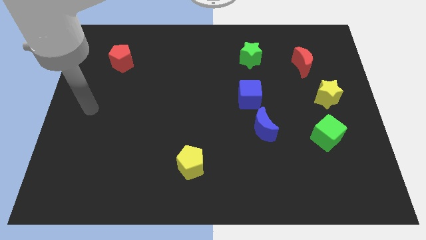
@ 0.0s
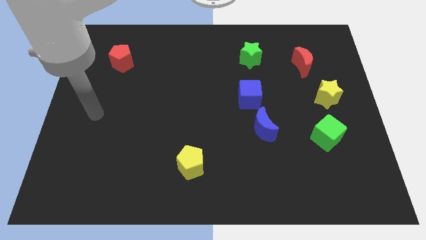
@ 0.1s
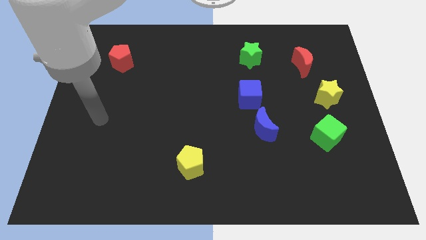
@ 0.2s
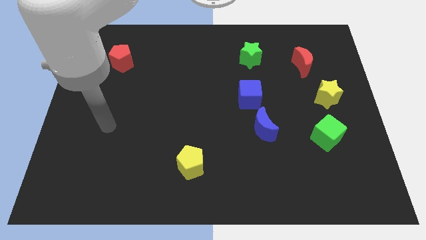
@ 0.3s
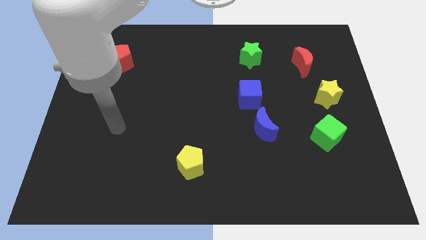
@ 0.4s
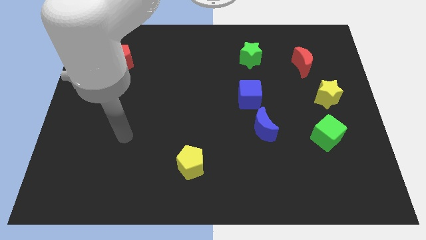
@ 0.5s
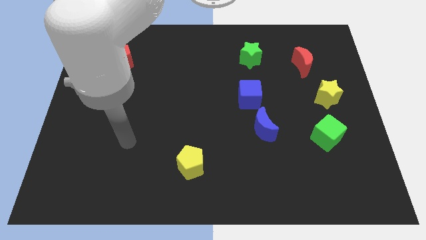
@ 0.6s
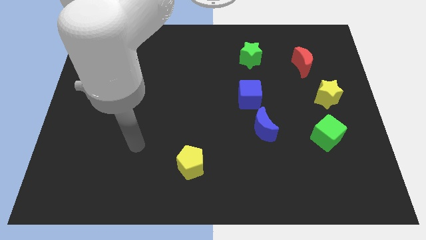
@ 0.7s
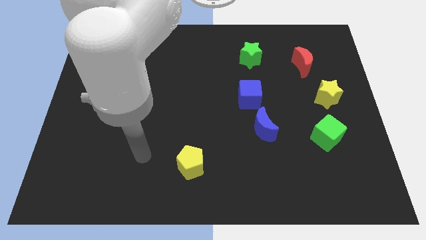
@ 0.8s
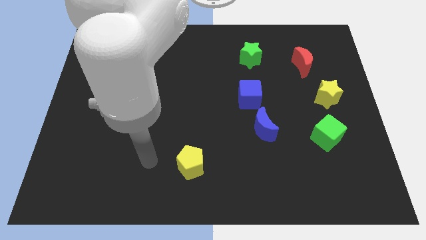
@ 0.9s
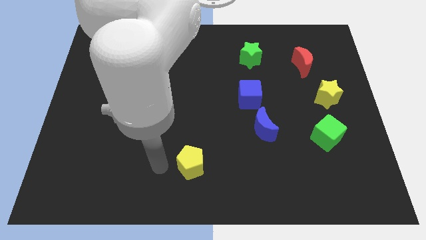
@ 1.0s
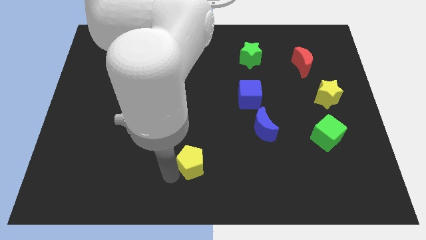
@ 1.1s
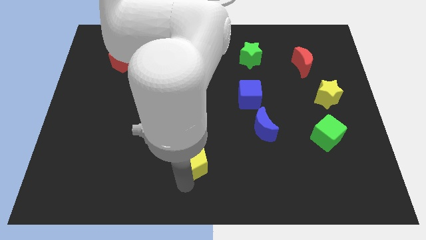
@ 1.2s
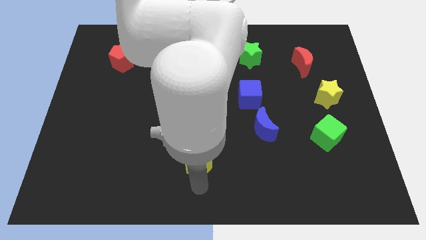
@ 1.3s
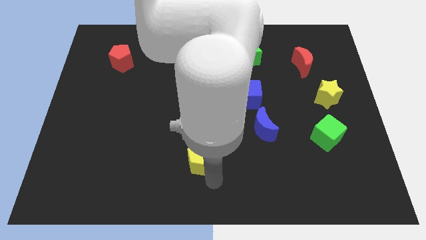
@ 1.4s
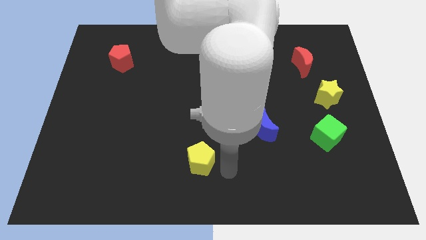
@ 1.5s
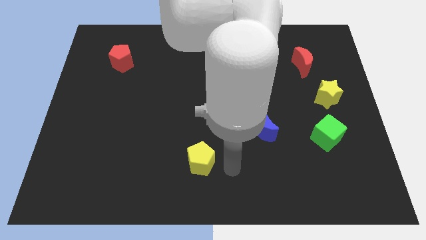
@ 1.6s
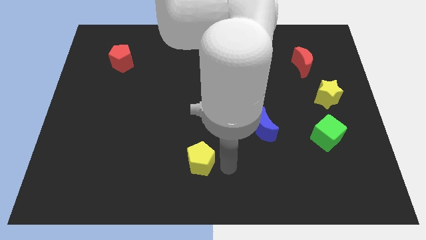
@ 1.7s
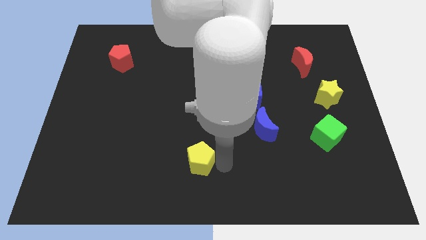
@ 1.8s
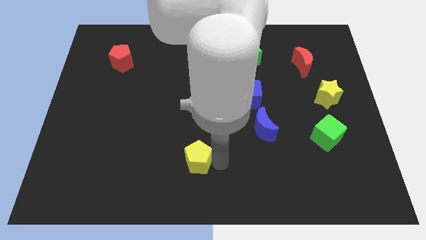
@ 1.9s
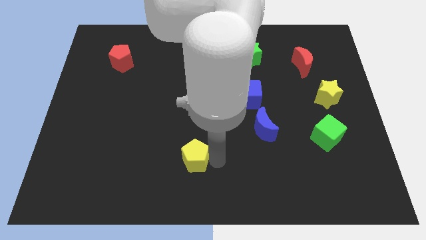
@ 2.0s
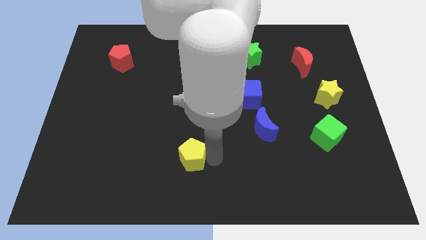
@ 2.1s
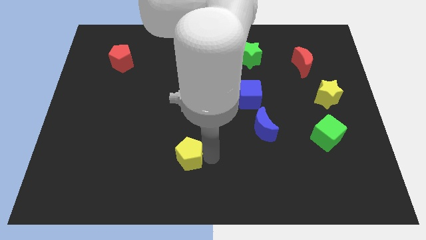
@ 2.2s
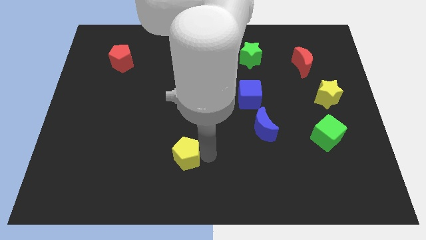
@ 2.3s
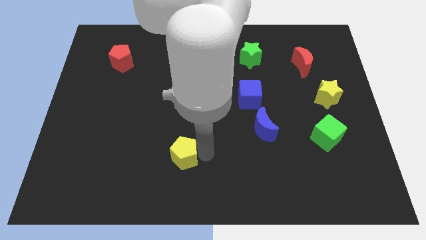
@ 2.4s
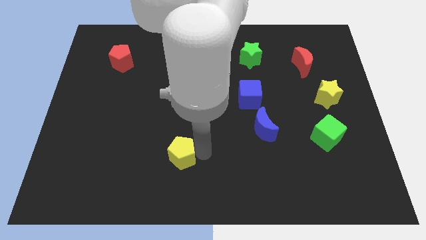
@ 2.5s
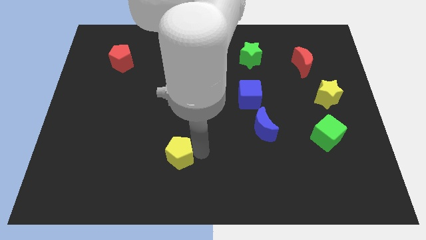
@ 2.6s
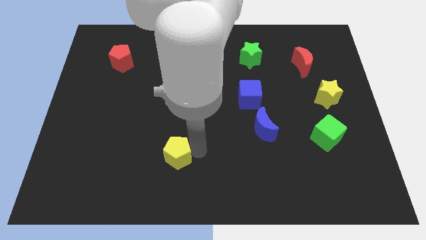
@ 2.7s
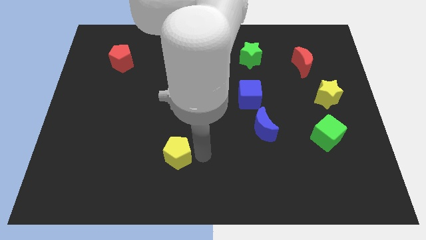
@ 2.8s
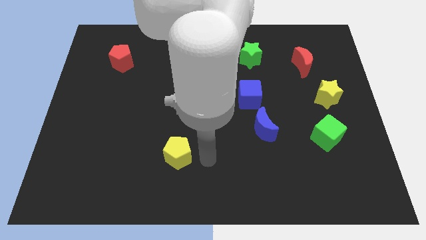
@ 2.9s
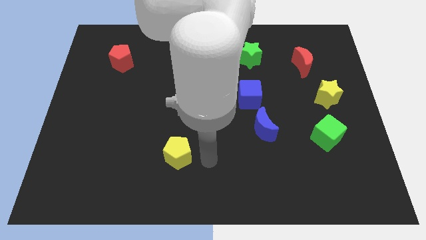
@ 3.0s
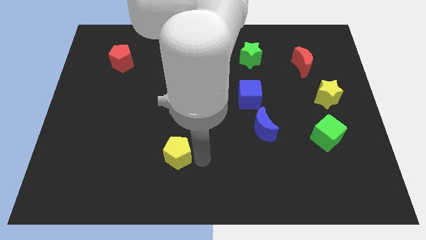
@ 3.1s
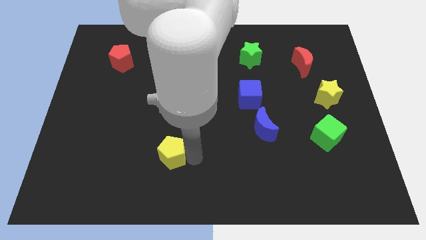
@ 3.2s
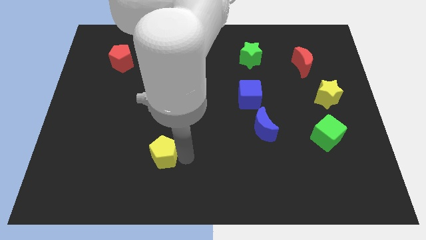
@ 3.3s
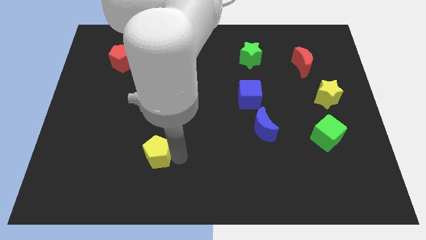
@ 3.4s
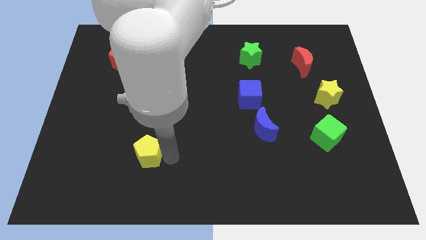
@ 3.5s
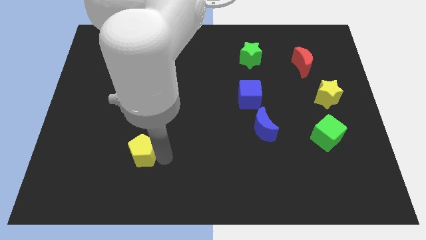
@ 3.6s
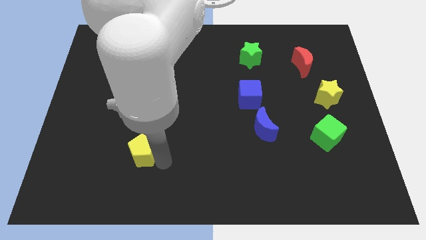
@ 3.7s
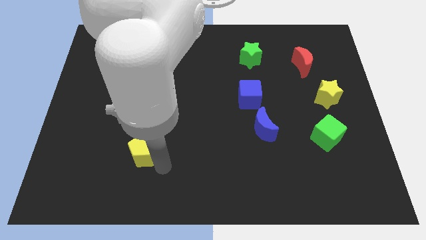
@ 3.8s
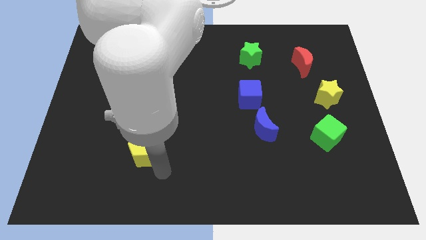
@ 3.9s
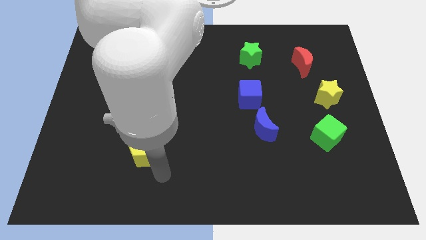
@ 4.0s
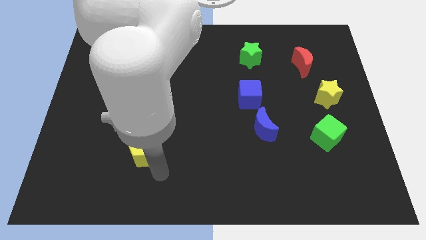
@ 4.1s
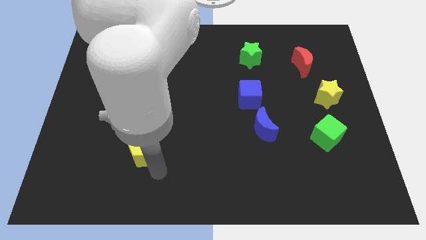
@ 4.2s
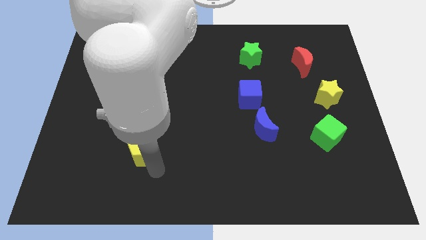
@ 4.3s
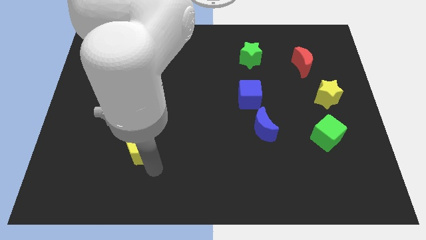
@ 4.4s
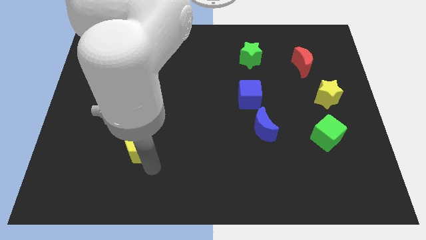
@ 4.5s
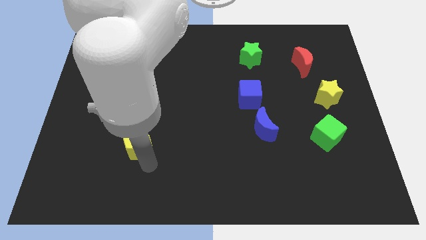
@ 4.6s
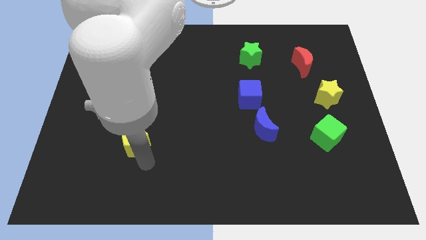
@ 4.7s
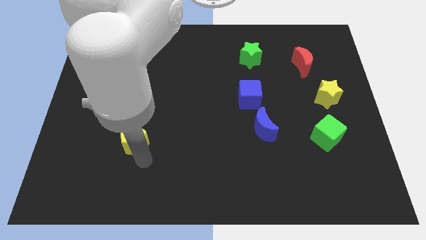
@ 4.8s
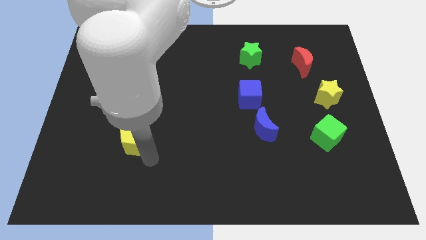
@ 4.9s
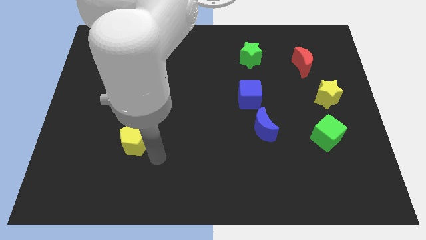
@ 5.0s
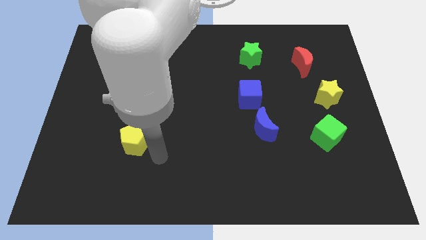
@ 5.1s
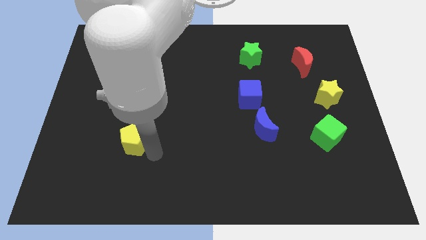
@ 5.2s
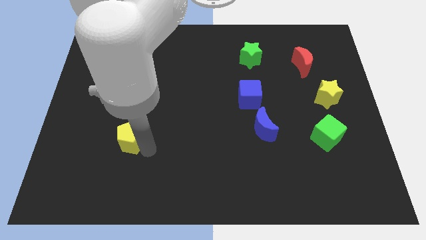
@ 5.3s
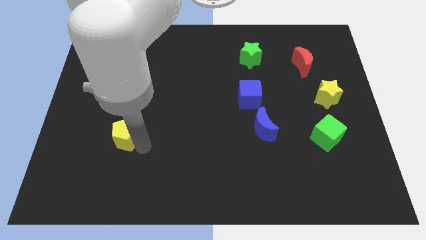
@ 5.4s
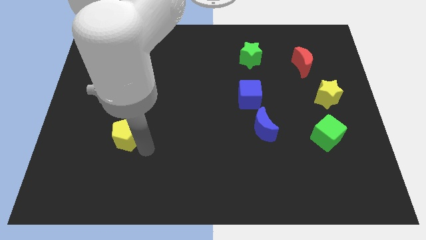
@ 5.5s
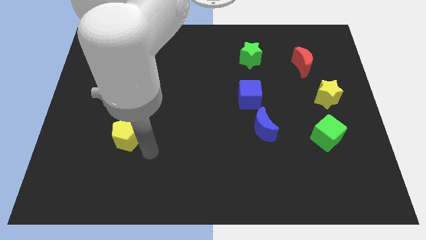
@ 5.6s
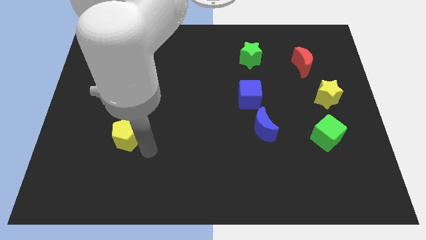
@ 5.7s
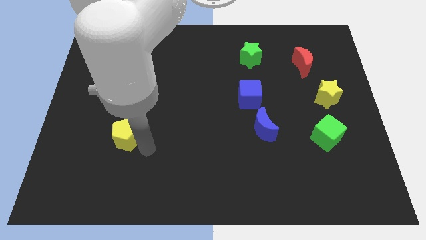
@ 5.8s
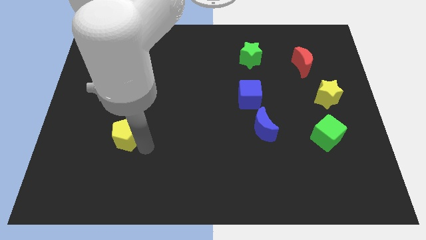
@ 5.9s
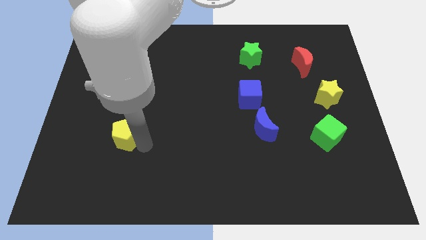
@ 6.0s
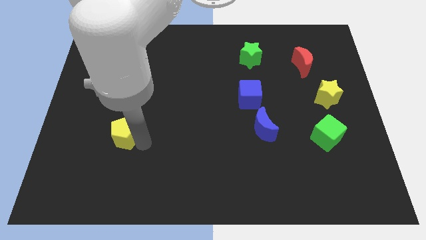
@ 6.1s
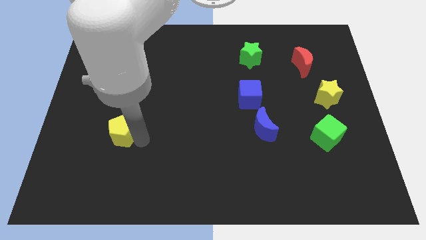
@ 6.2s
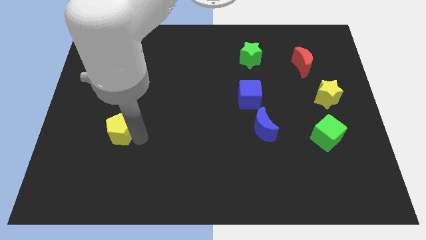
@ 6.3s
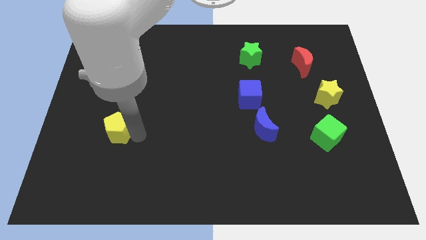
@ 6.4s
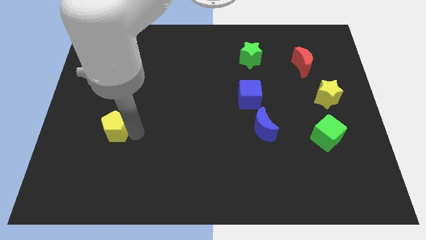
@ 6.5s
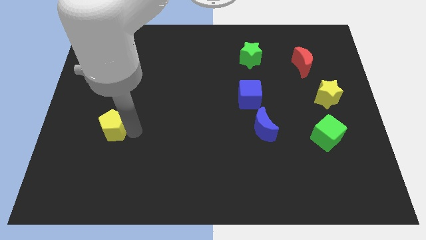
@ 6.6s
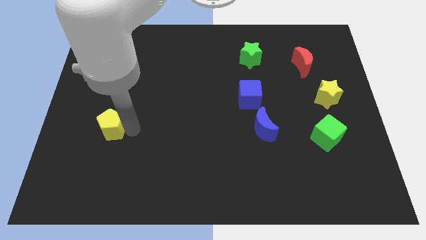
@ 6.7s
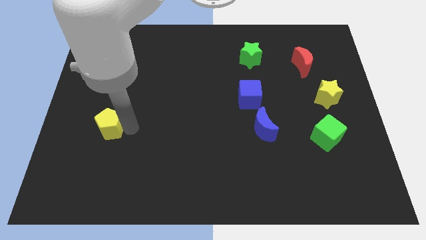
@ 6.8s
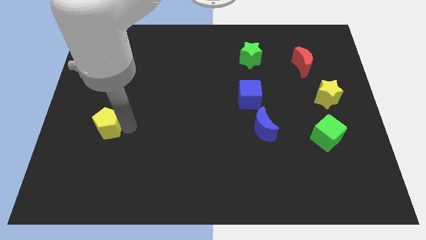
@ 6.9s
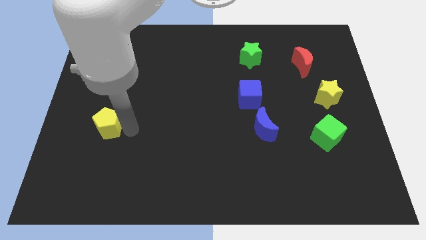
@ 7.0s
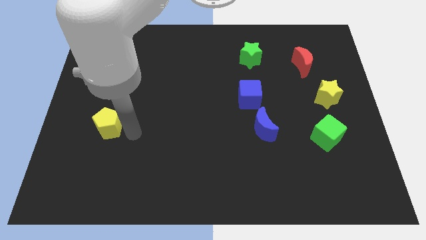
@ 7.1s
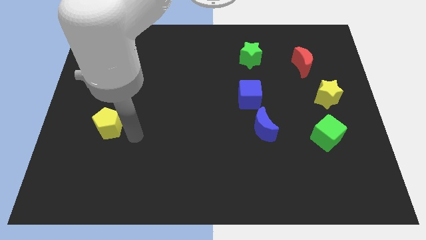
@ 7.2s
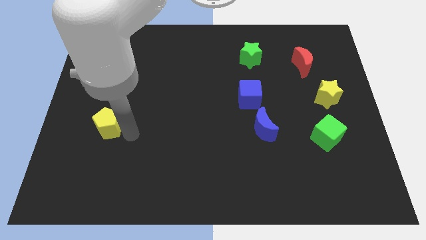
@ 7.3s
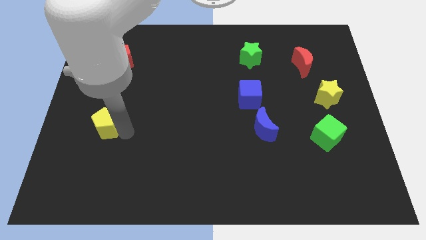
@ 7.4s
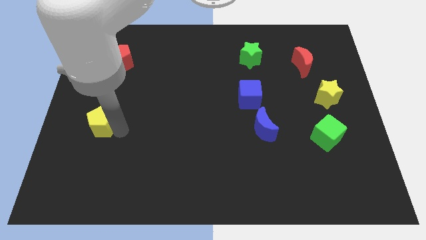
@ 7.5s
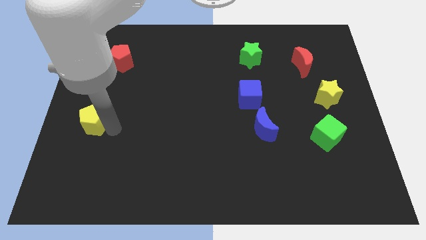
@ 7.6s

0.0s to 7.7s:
push the yellow pentagon to the center left
